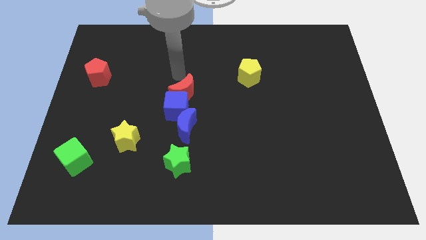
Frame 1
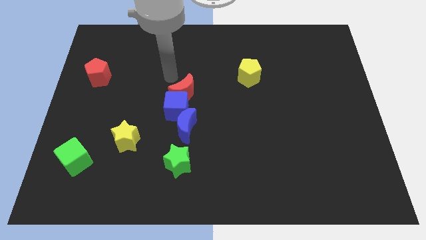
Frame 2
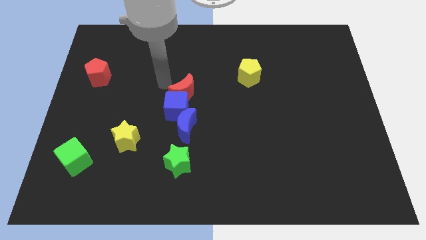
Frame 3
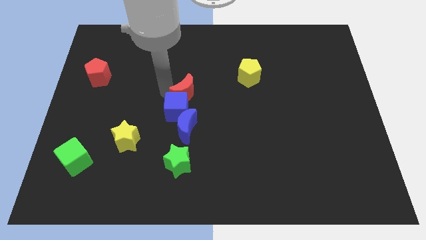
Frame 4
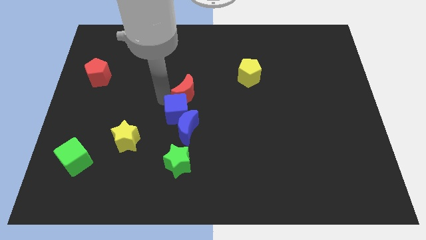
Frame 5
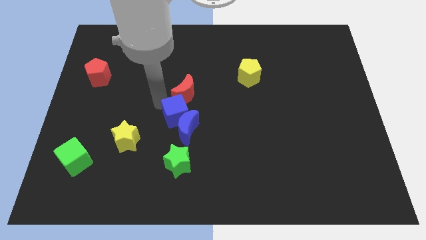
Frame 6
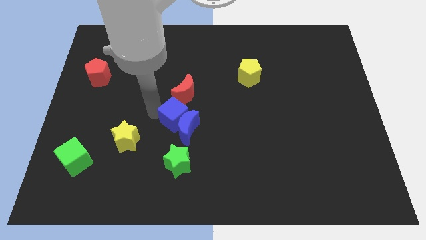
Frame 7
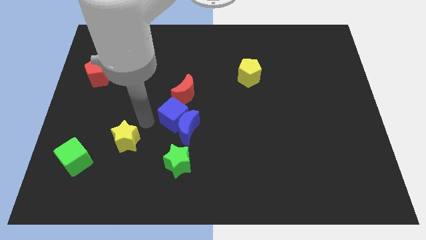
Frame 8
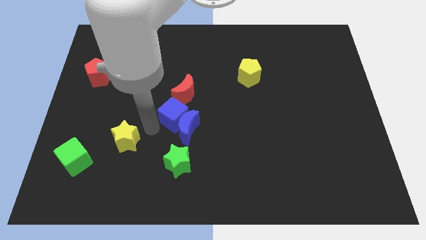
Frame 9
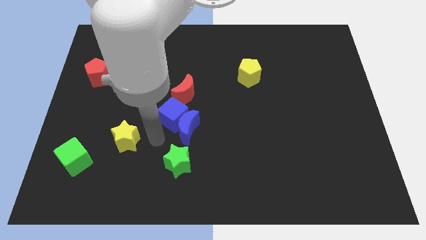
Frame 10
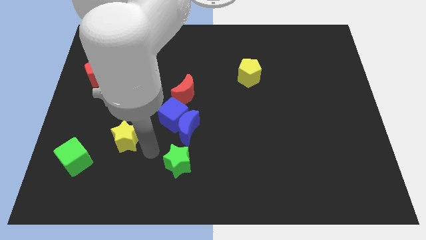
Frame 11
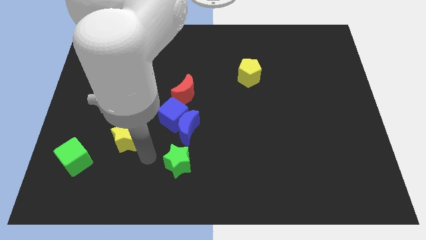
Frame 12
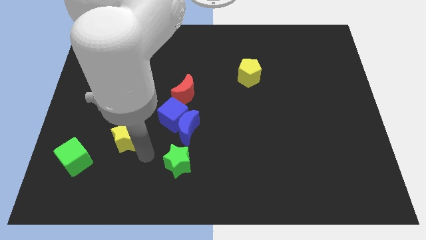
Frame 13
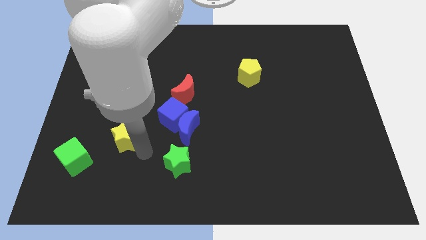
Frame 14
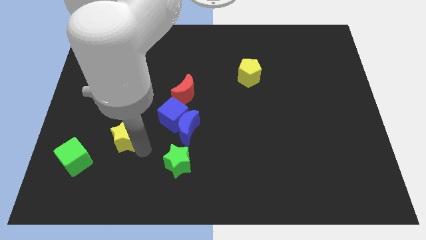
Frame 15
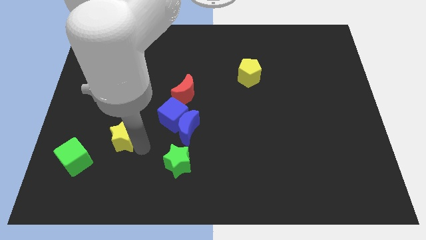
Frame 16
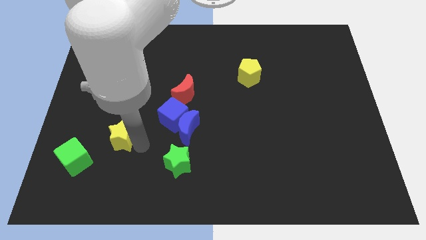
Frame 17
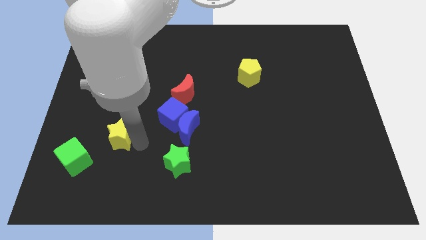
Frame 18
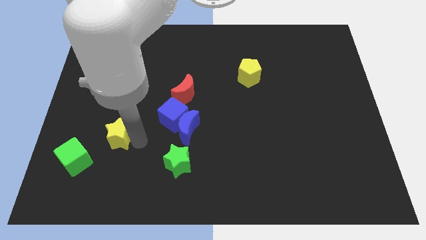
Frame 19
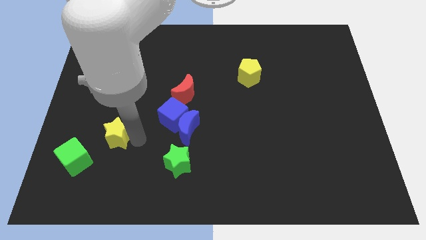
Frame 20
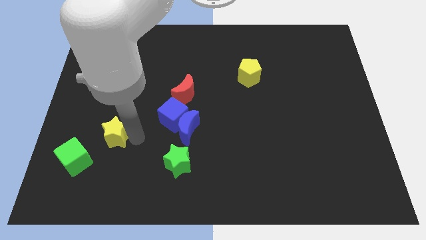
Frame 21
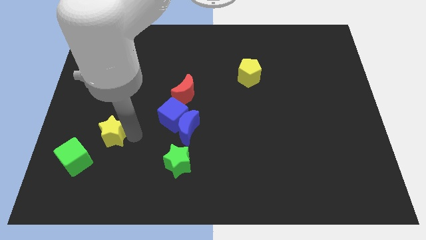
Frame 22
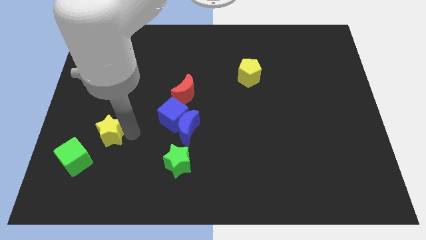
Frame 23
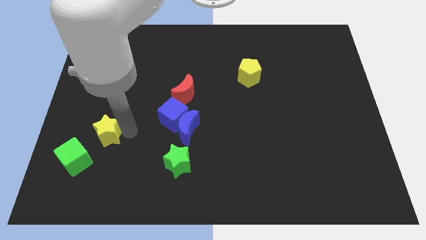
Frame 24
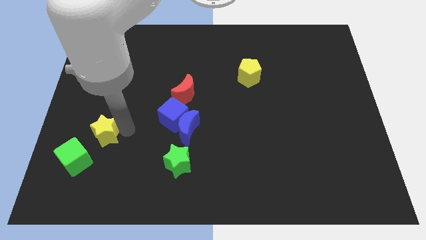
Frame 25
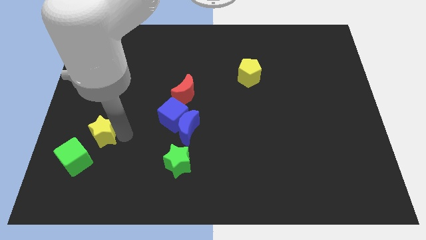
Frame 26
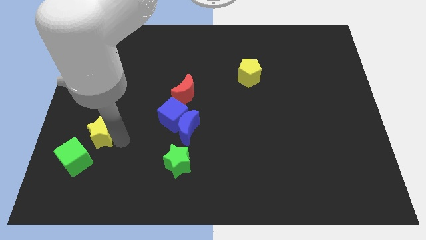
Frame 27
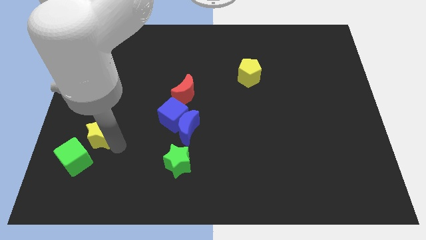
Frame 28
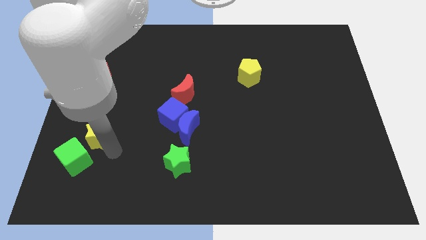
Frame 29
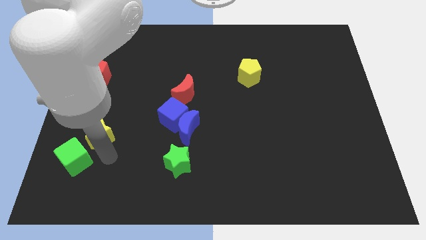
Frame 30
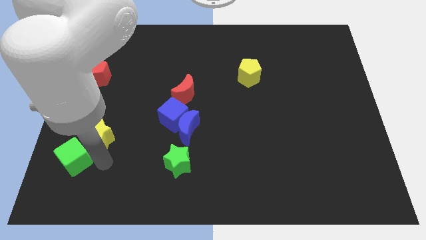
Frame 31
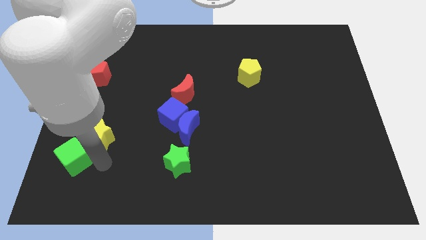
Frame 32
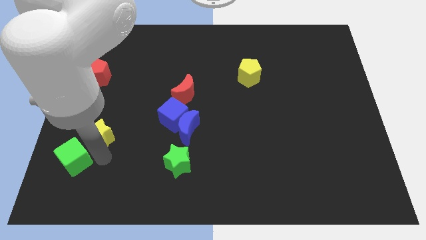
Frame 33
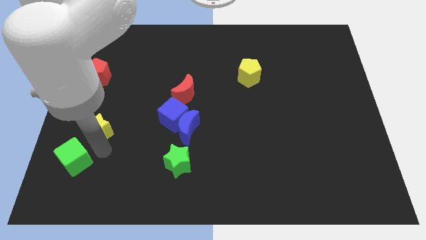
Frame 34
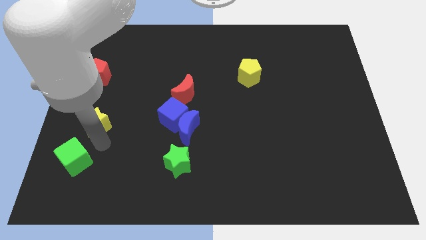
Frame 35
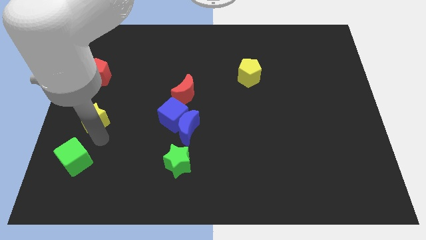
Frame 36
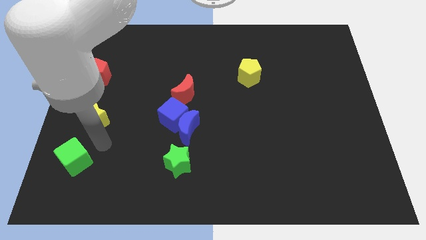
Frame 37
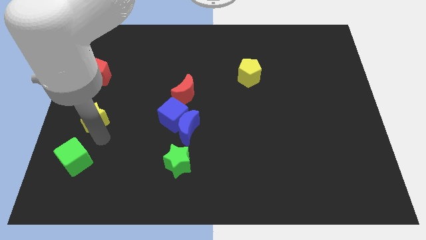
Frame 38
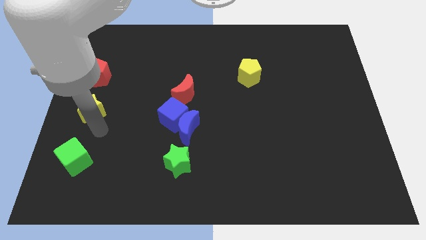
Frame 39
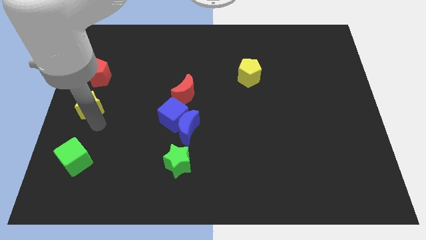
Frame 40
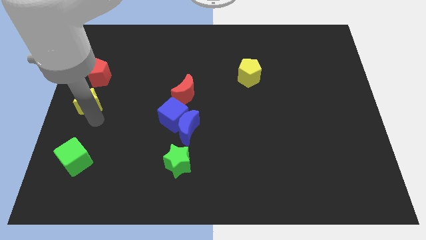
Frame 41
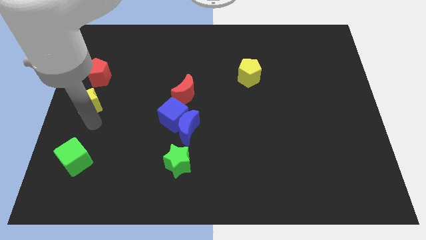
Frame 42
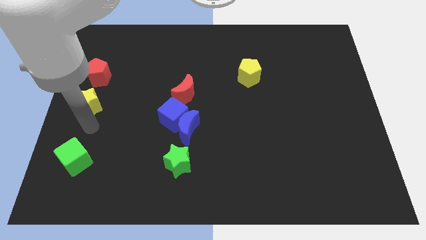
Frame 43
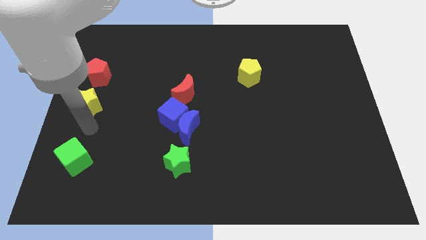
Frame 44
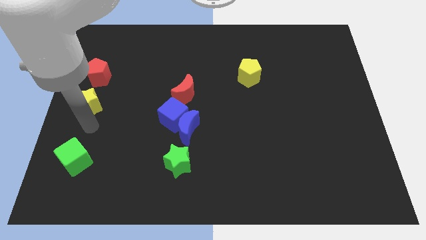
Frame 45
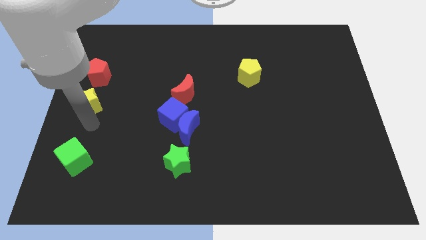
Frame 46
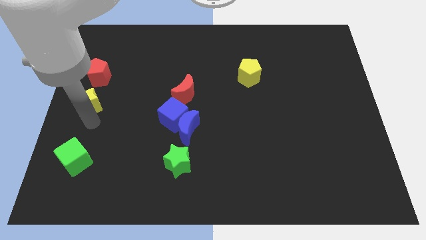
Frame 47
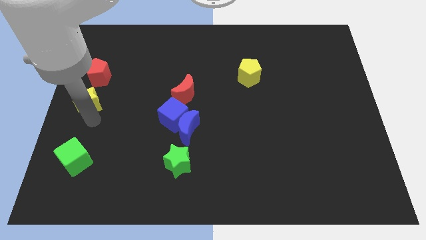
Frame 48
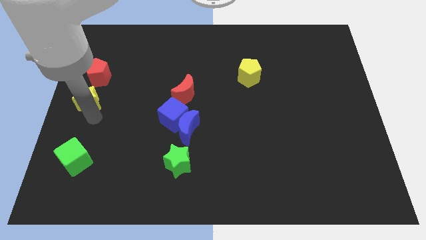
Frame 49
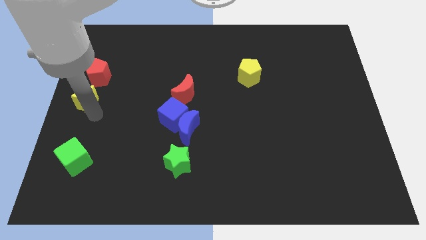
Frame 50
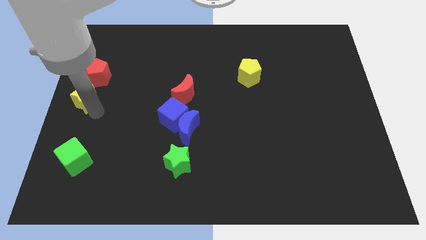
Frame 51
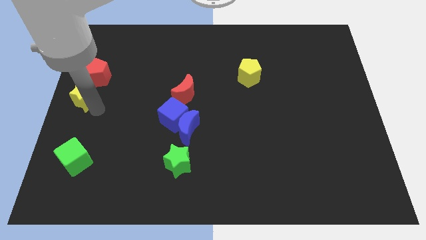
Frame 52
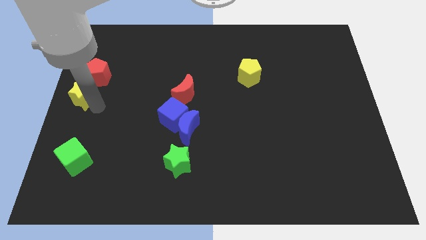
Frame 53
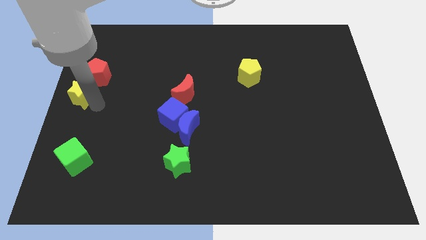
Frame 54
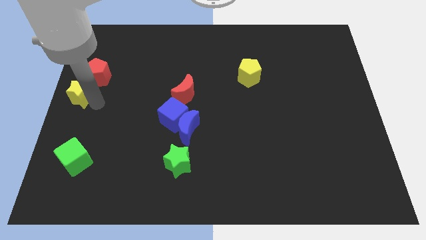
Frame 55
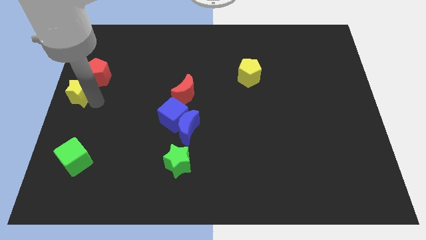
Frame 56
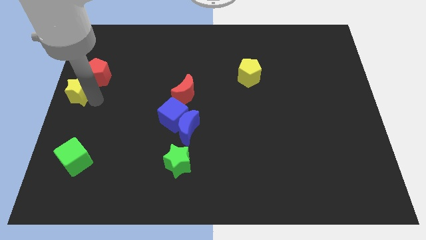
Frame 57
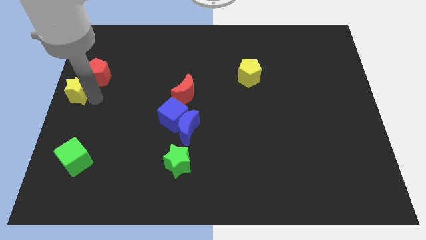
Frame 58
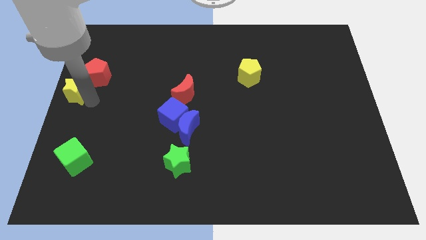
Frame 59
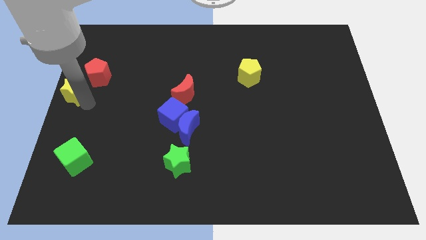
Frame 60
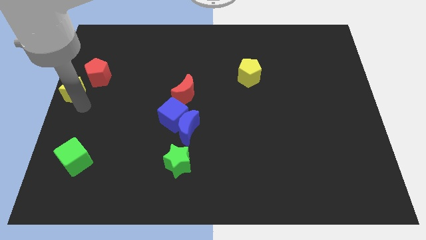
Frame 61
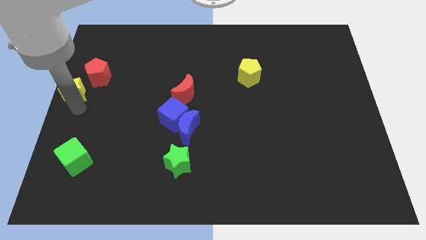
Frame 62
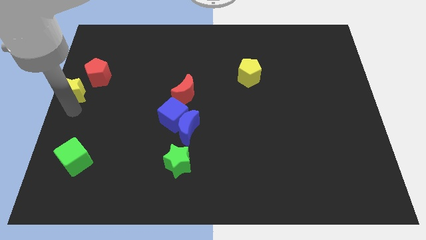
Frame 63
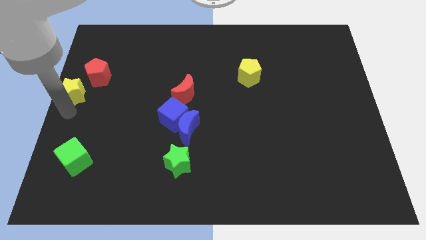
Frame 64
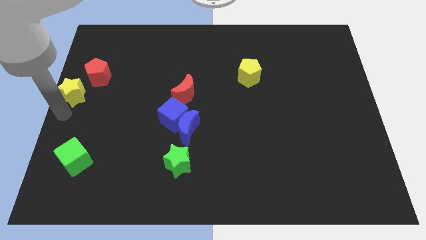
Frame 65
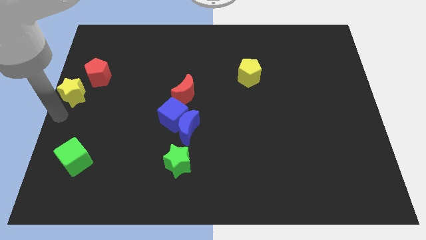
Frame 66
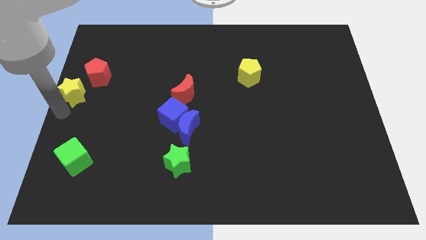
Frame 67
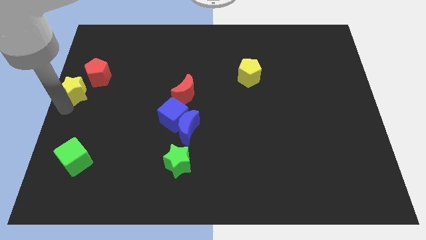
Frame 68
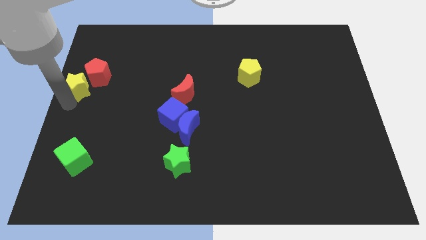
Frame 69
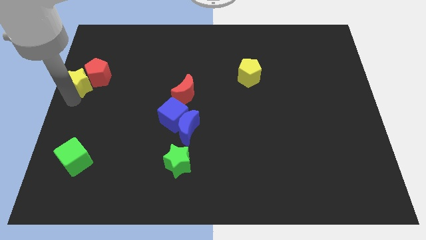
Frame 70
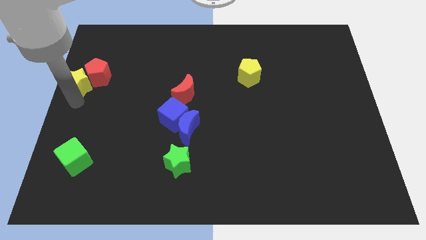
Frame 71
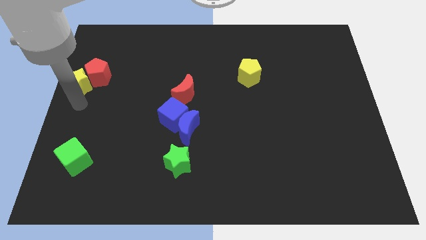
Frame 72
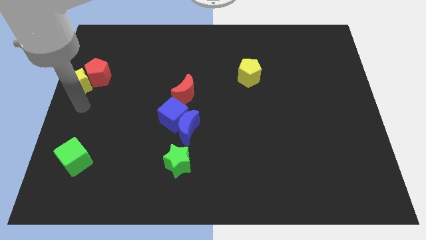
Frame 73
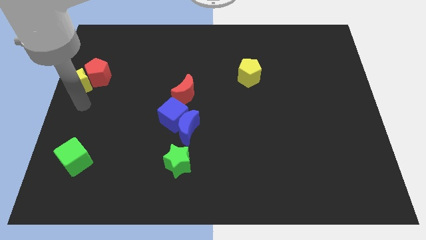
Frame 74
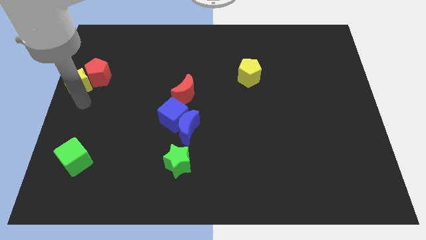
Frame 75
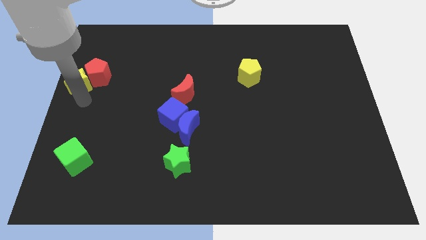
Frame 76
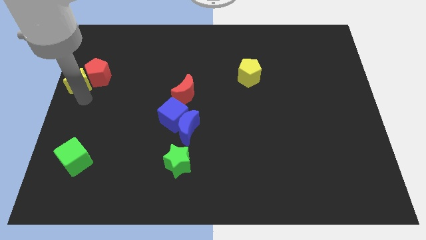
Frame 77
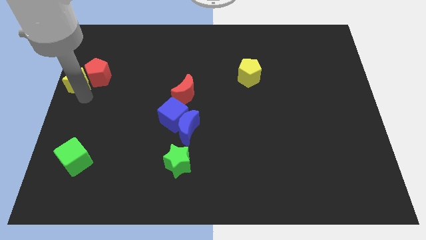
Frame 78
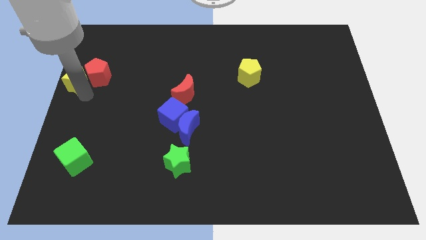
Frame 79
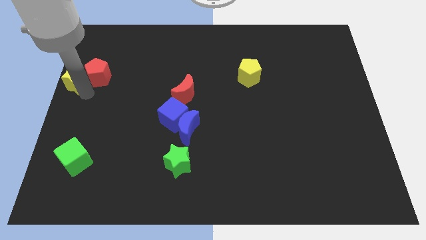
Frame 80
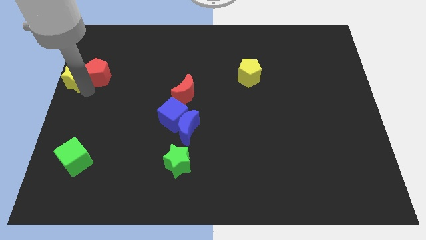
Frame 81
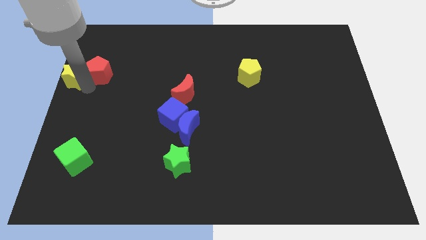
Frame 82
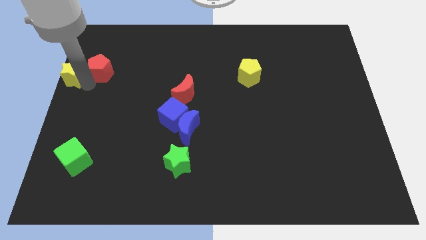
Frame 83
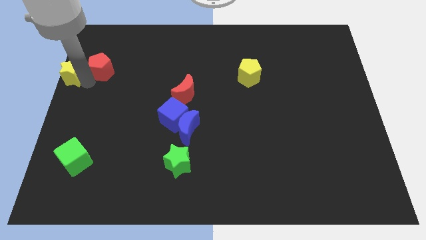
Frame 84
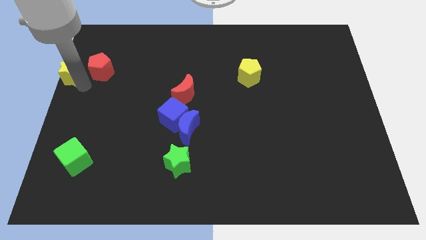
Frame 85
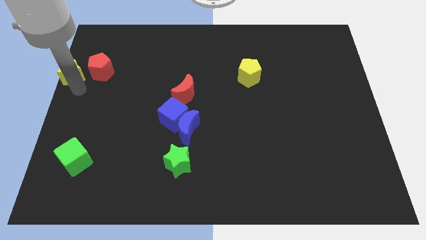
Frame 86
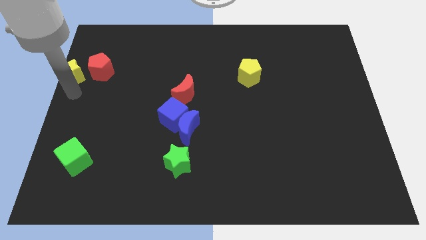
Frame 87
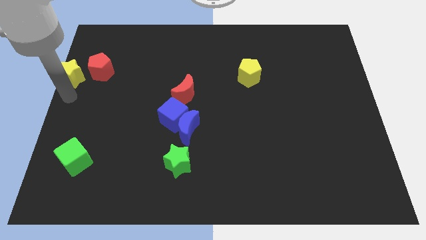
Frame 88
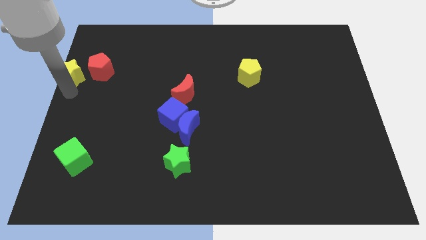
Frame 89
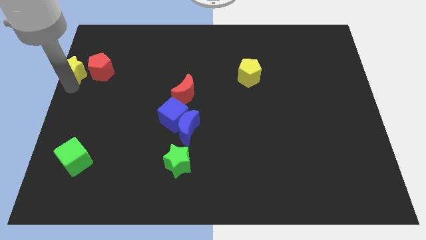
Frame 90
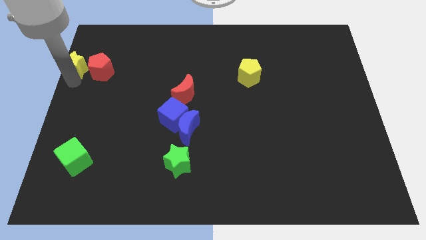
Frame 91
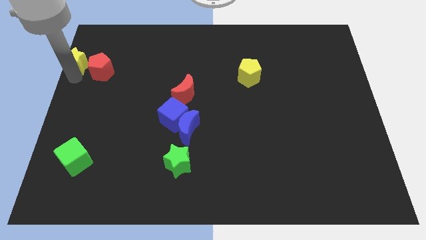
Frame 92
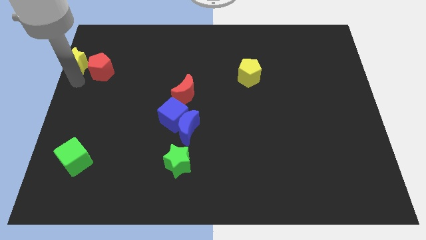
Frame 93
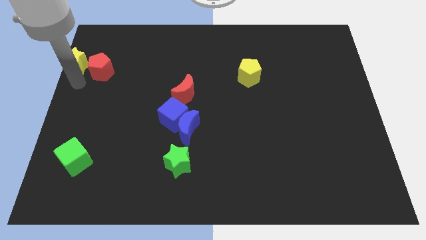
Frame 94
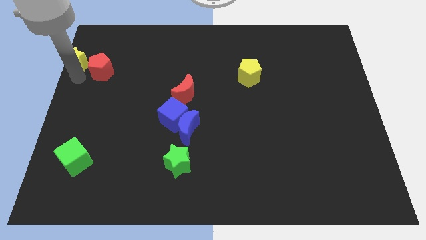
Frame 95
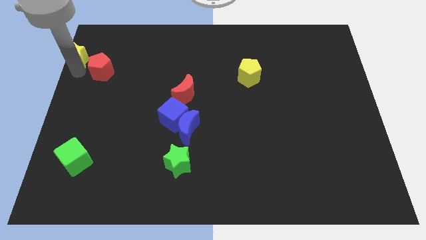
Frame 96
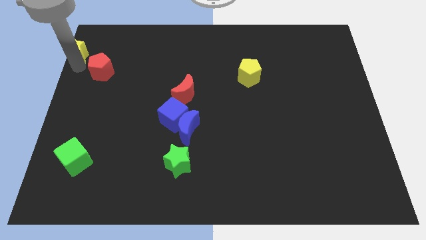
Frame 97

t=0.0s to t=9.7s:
put the yellow star to the upper left corner
